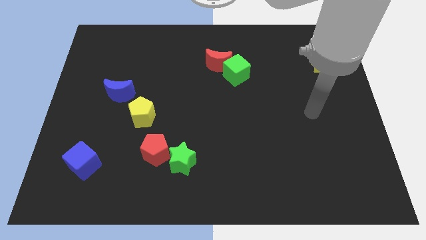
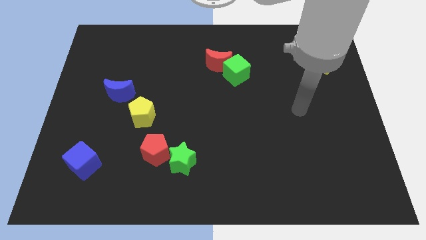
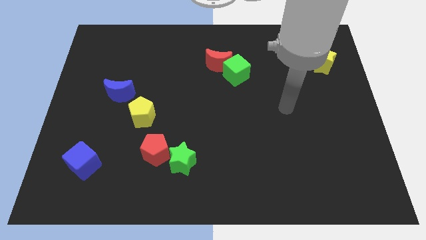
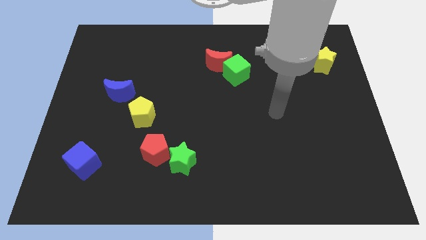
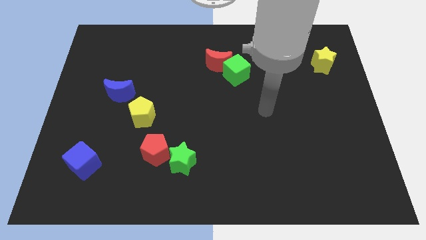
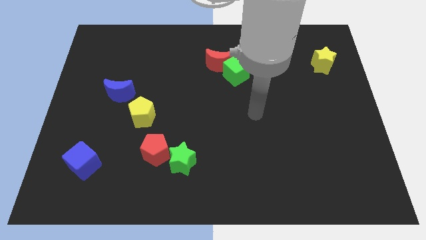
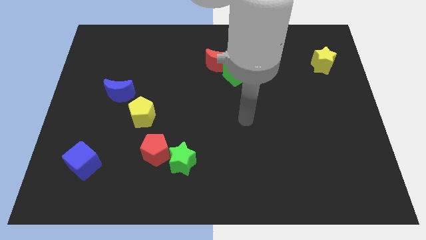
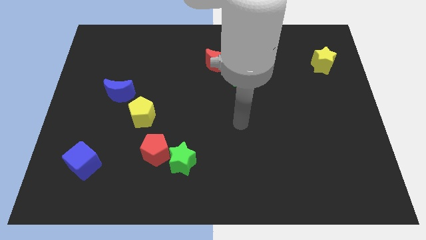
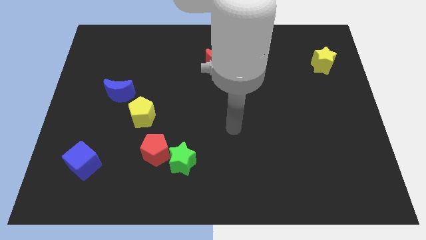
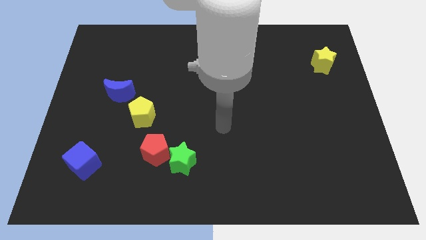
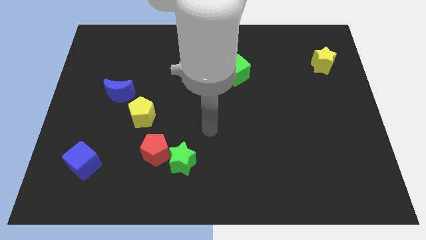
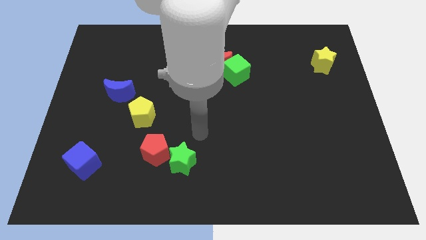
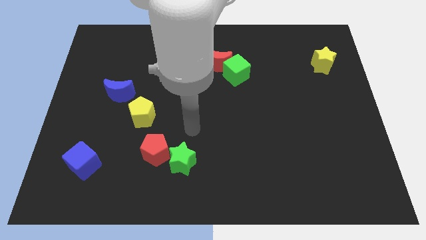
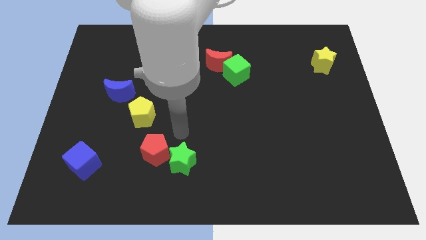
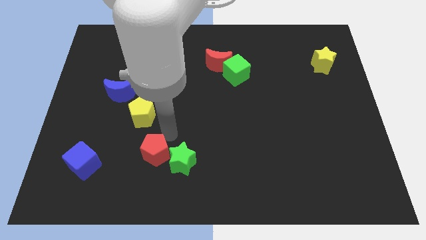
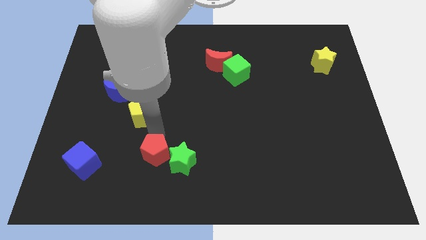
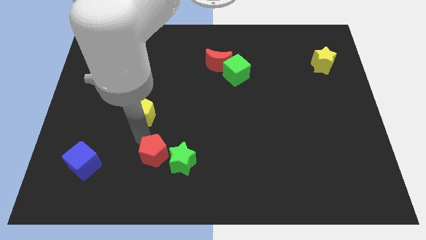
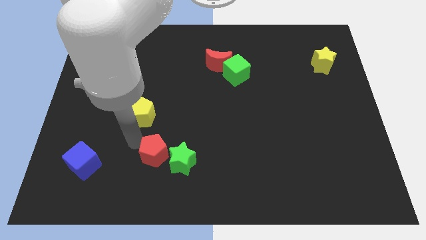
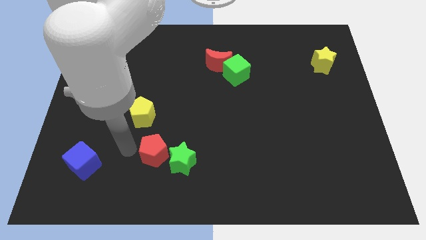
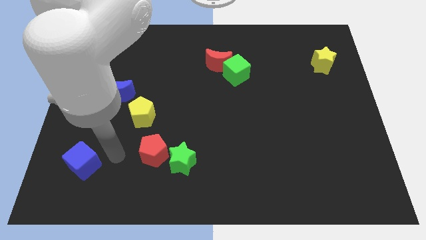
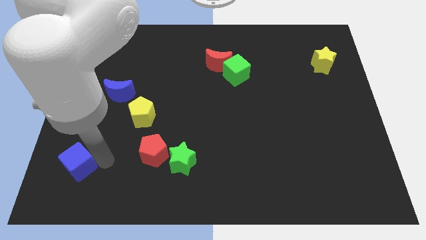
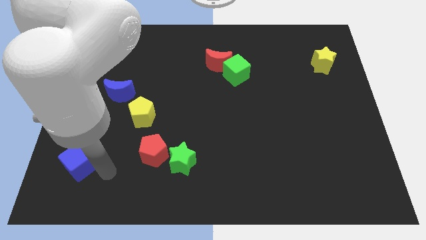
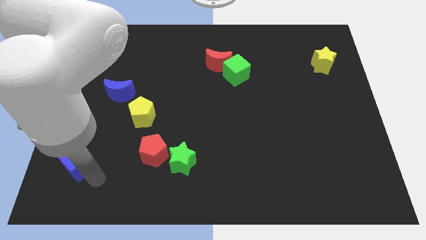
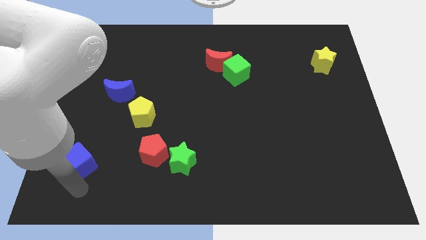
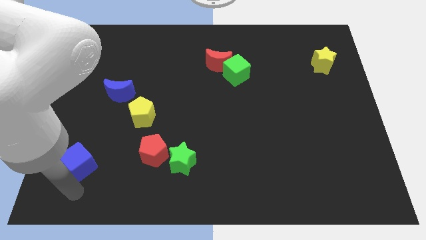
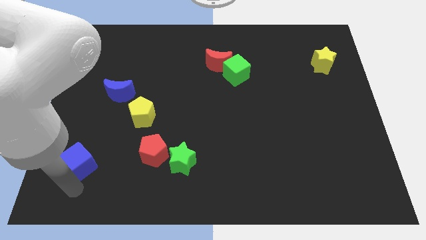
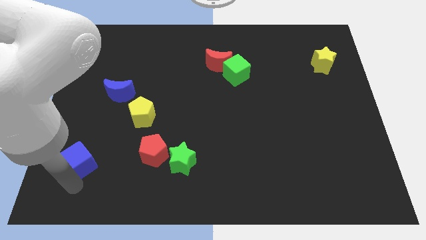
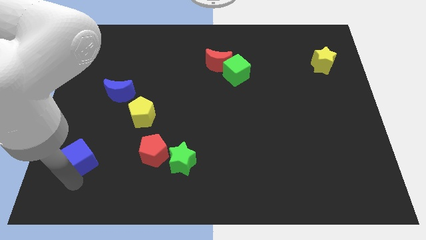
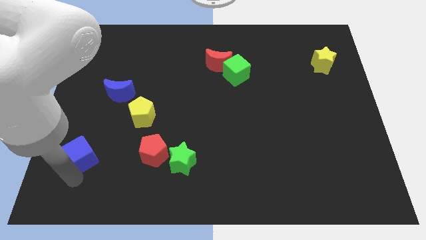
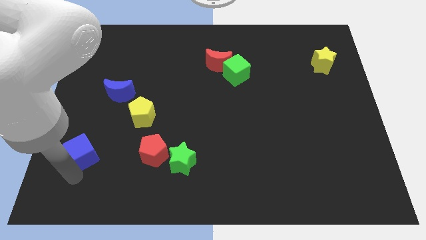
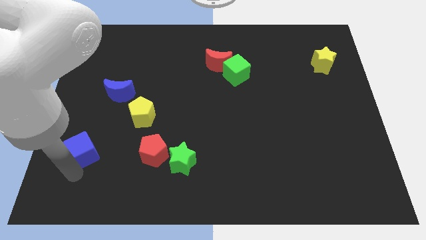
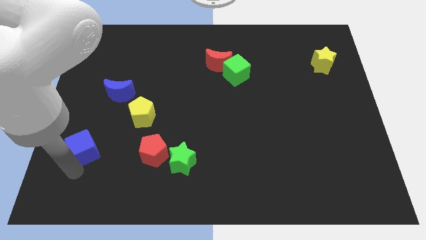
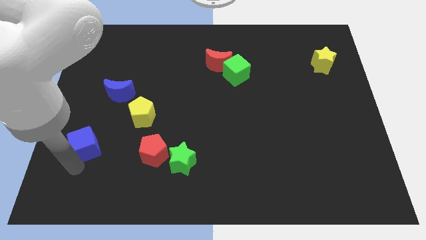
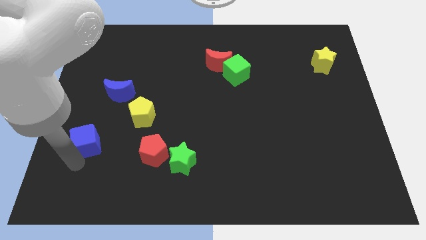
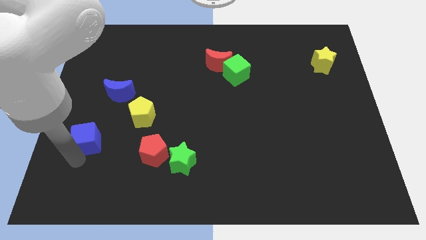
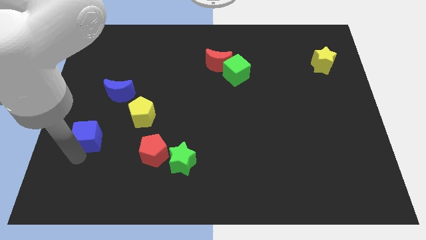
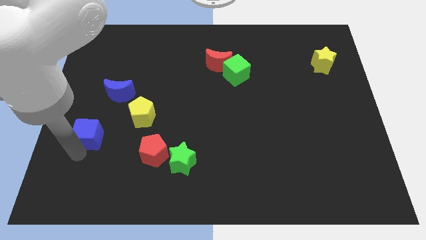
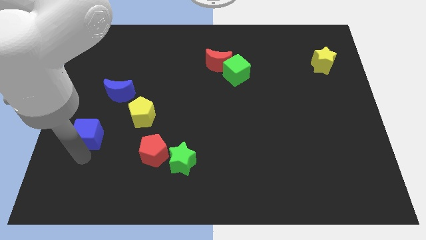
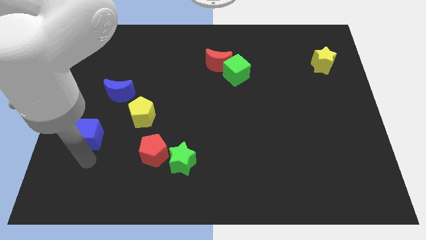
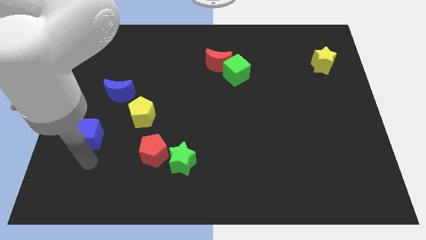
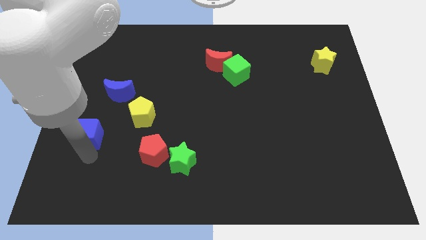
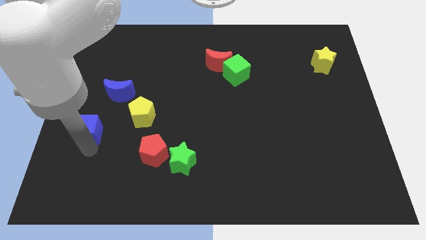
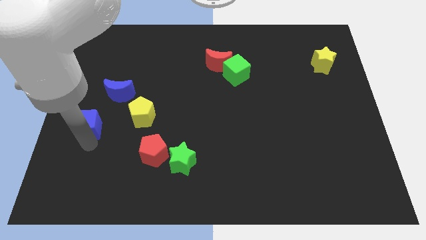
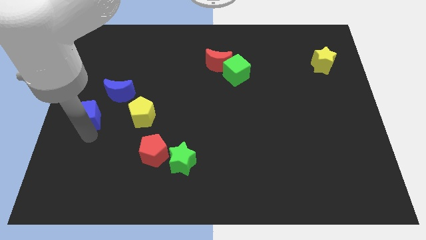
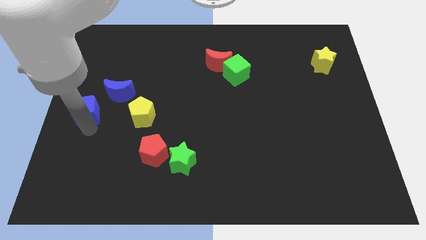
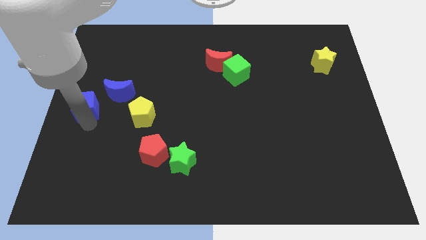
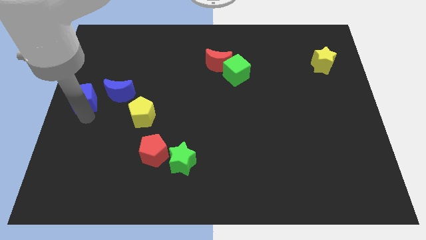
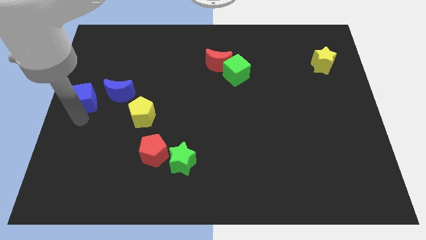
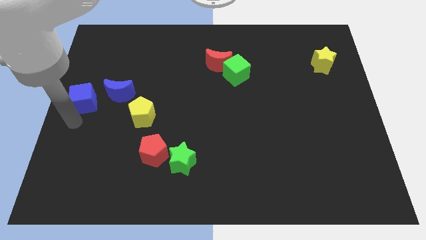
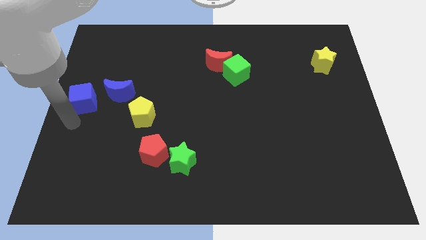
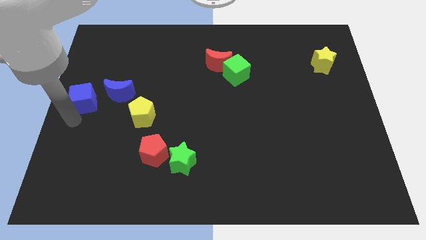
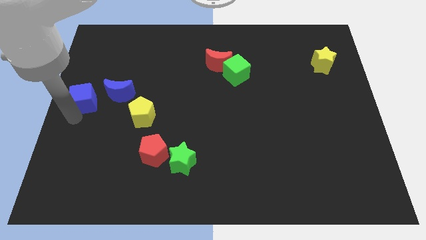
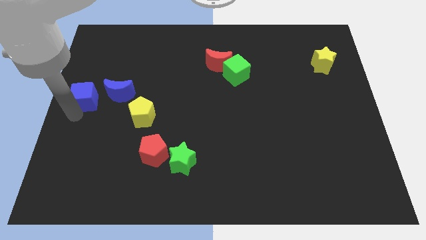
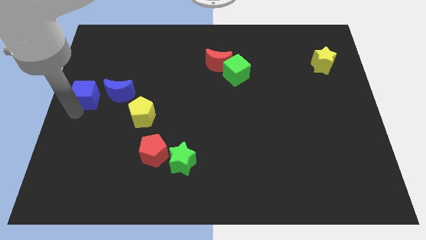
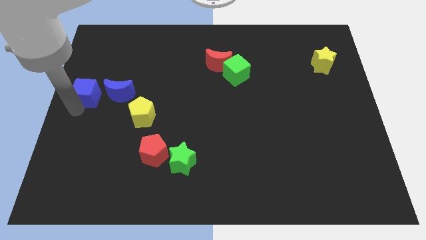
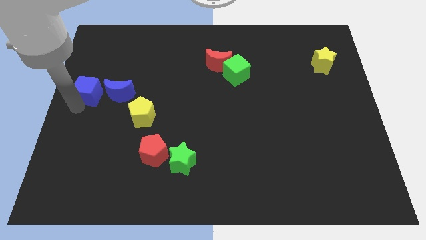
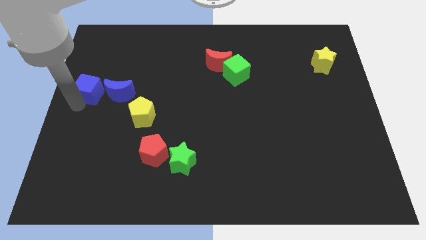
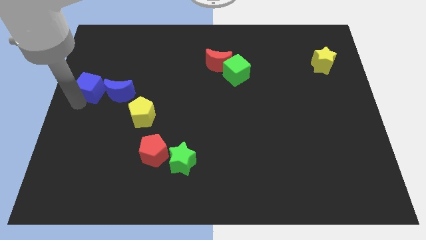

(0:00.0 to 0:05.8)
move the blue cube up

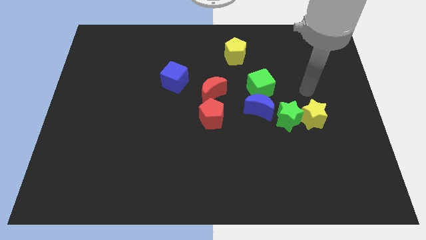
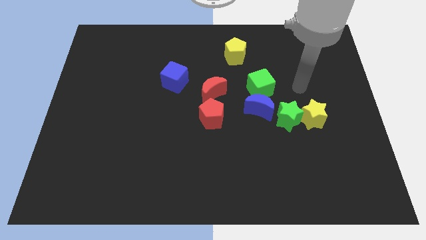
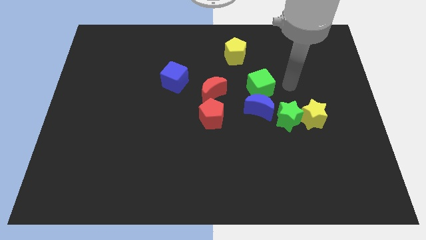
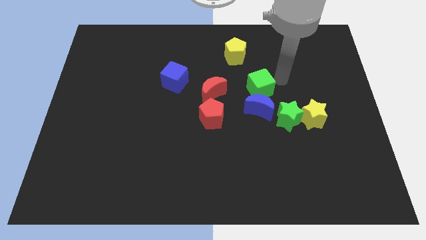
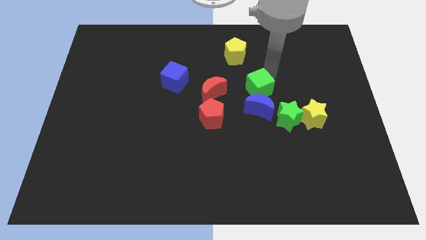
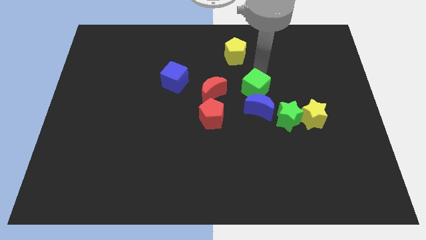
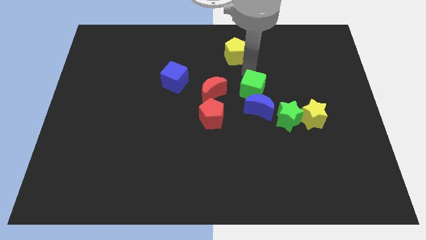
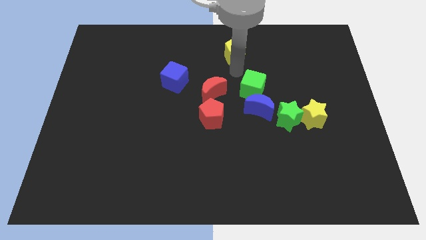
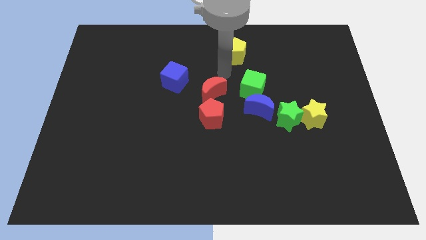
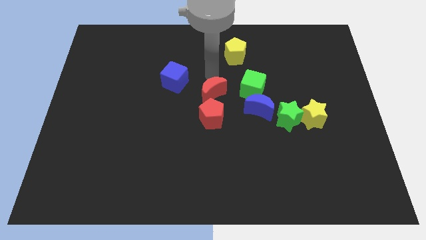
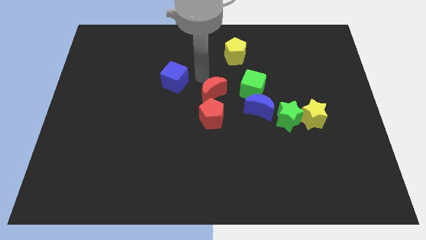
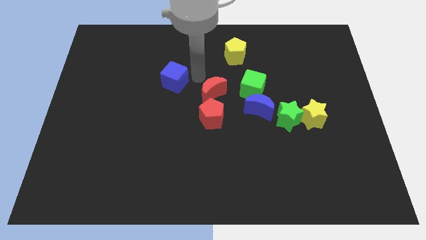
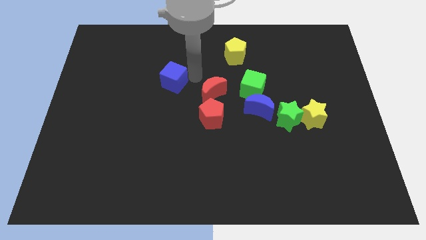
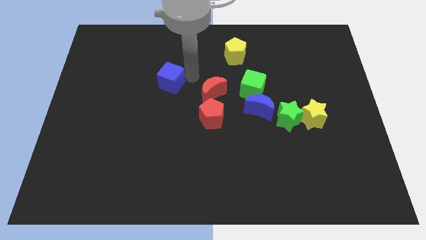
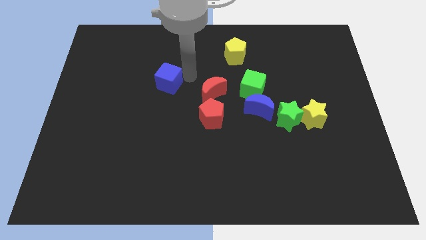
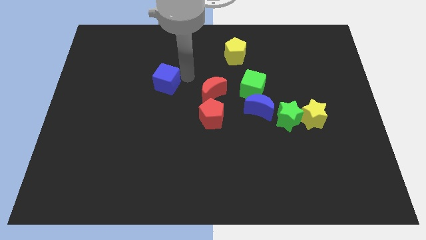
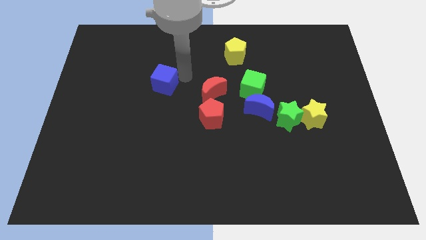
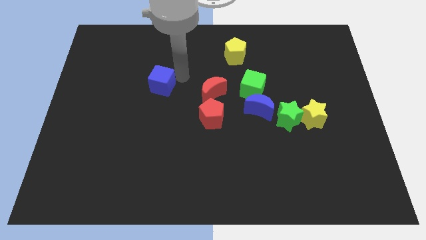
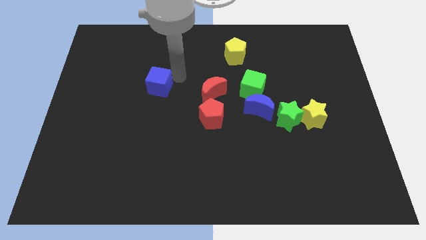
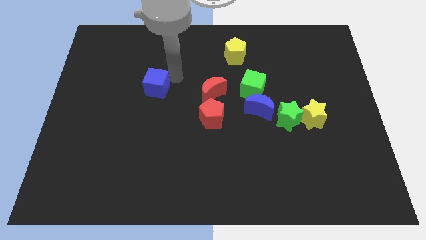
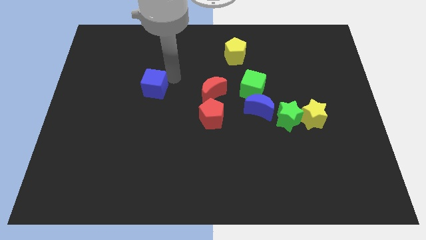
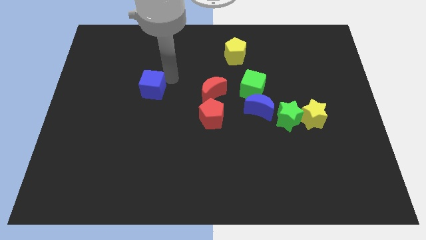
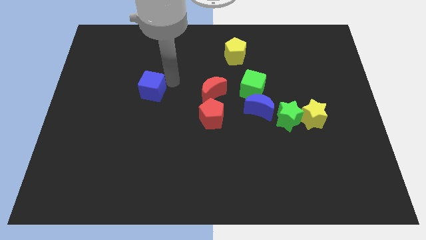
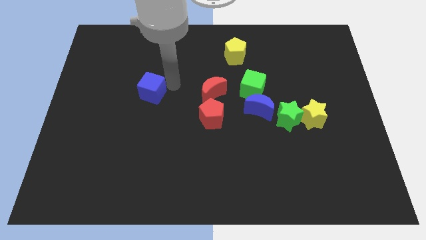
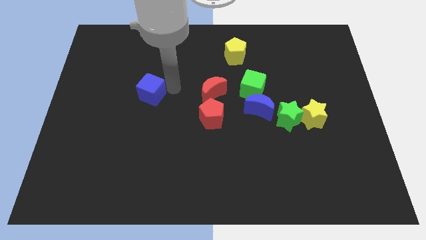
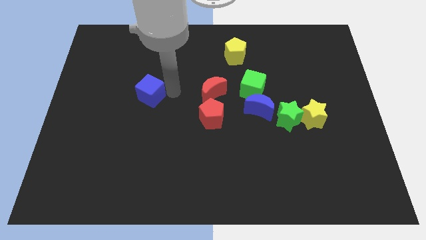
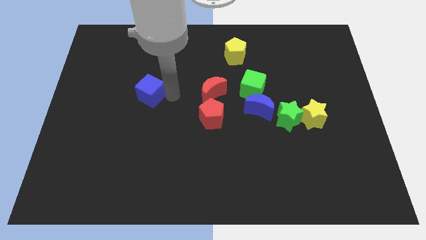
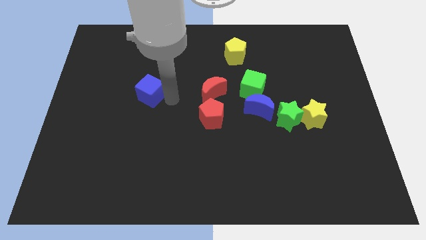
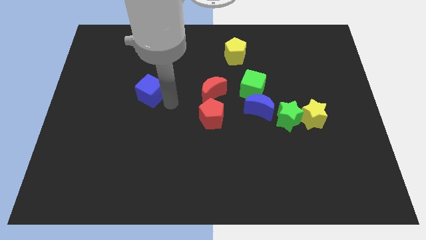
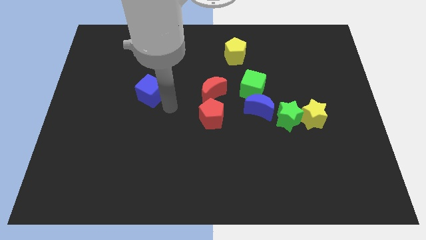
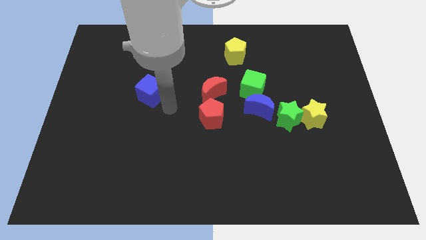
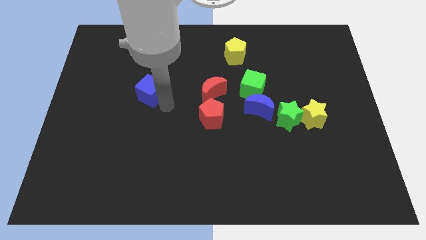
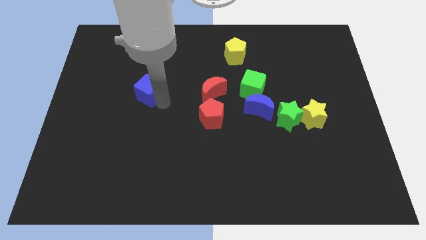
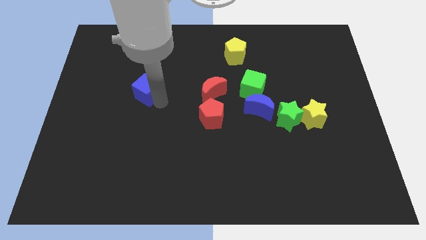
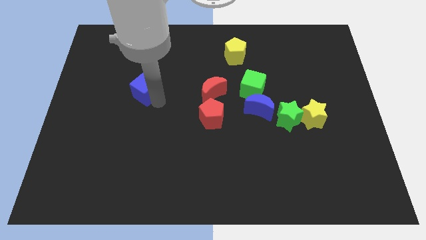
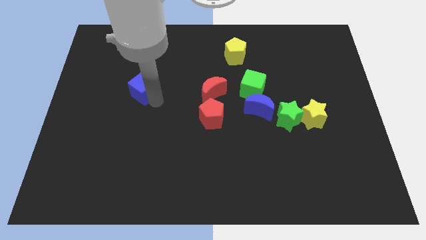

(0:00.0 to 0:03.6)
slightly move the blue cube to the left
